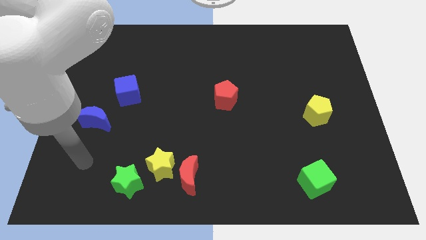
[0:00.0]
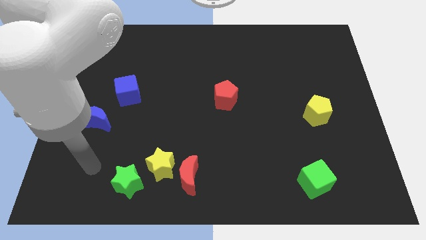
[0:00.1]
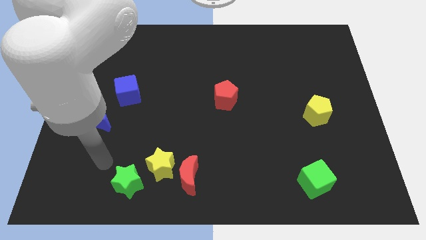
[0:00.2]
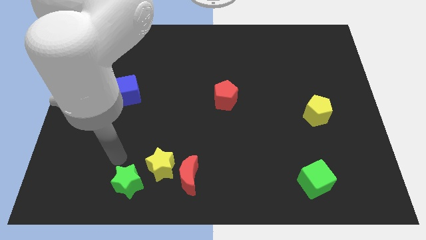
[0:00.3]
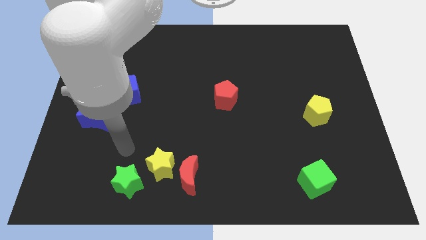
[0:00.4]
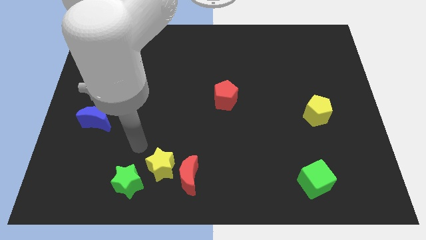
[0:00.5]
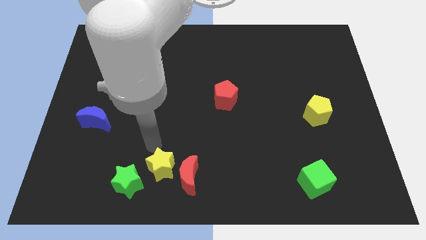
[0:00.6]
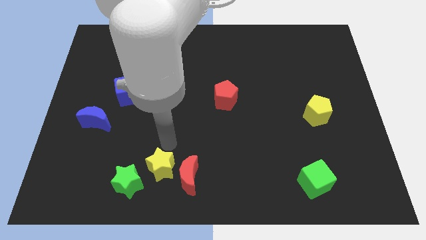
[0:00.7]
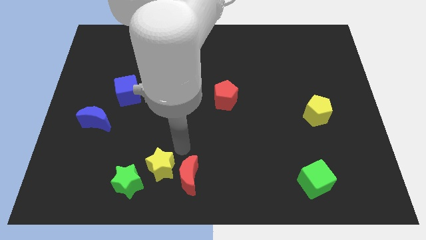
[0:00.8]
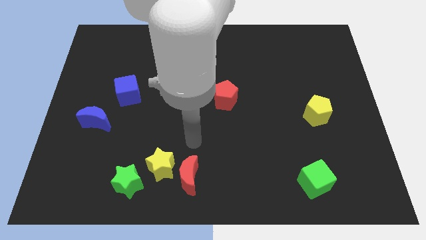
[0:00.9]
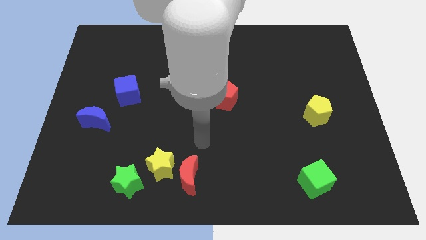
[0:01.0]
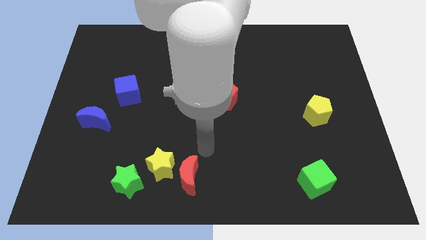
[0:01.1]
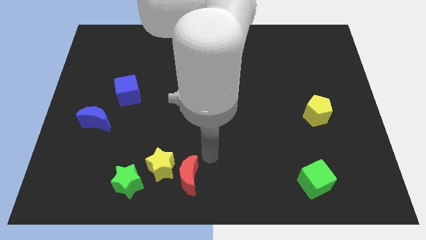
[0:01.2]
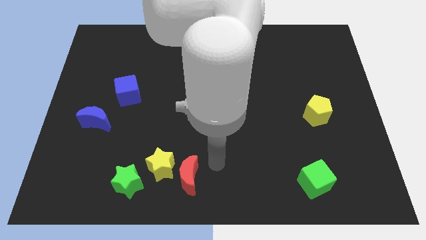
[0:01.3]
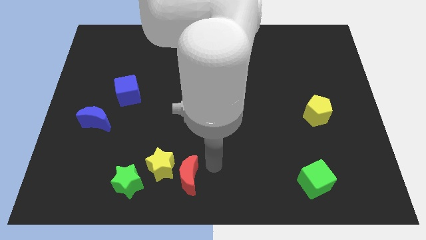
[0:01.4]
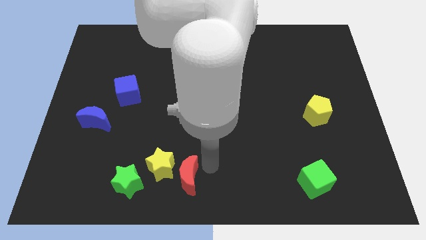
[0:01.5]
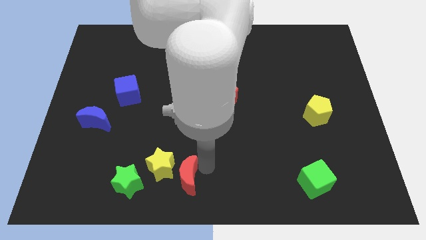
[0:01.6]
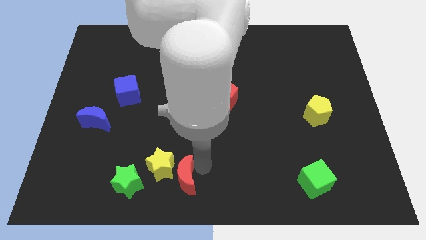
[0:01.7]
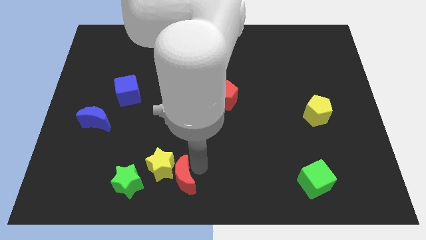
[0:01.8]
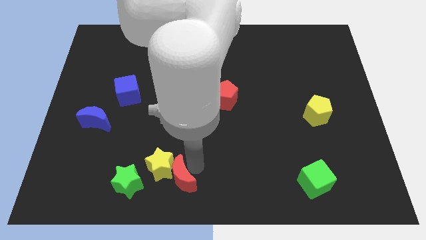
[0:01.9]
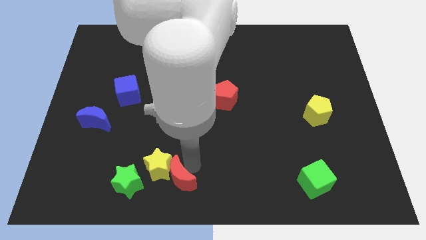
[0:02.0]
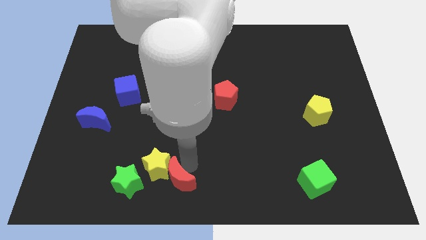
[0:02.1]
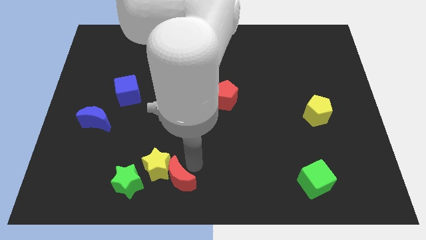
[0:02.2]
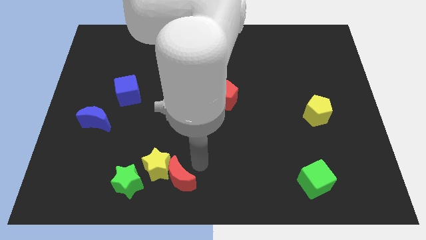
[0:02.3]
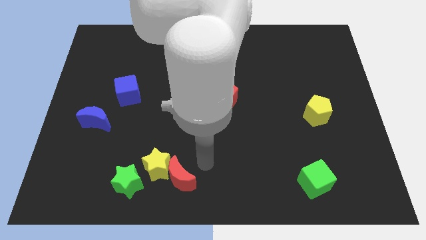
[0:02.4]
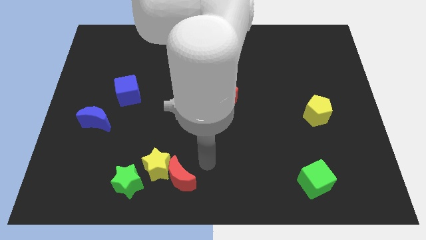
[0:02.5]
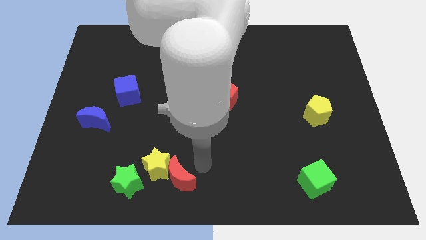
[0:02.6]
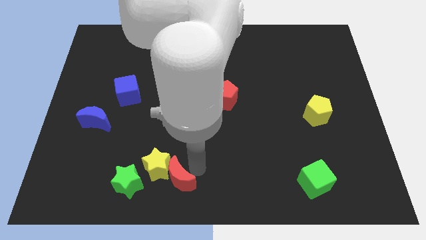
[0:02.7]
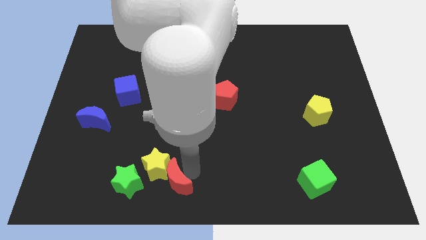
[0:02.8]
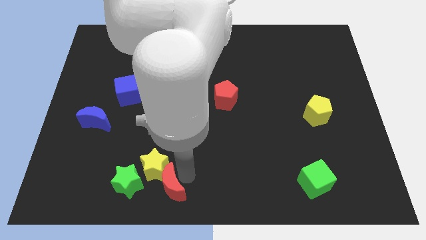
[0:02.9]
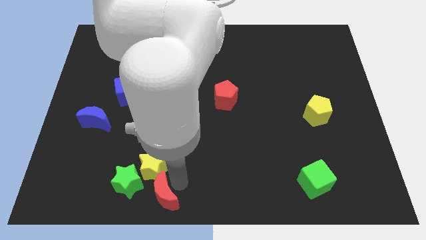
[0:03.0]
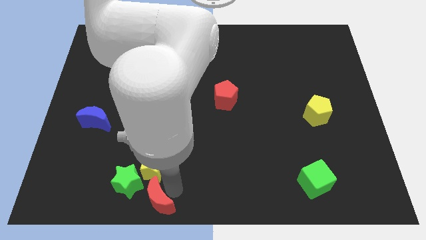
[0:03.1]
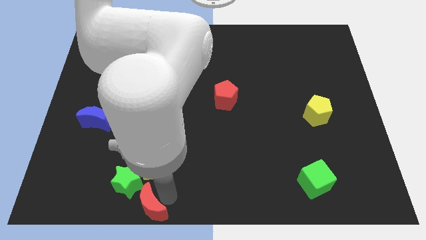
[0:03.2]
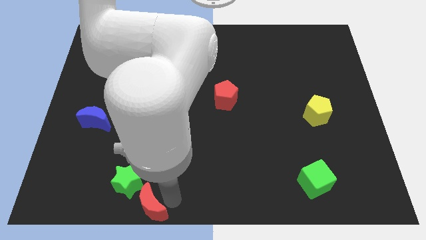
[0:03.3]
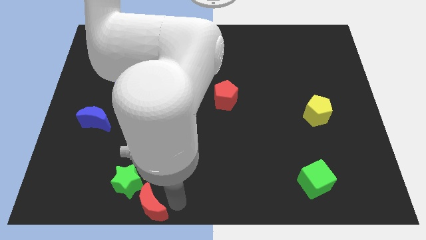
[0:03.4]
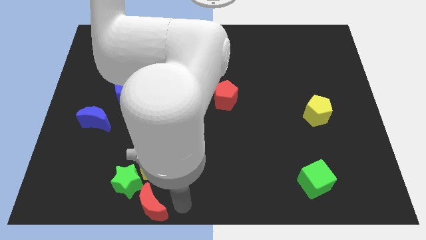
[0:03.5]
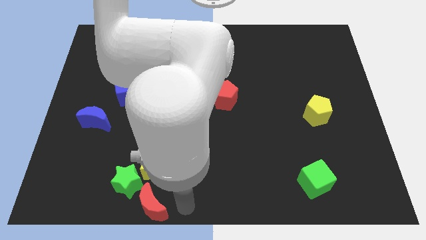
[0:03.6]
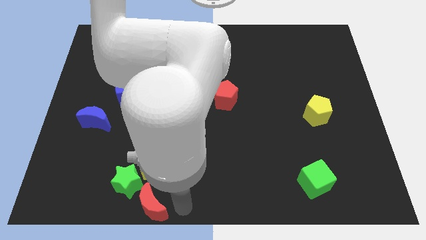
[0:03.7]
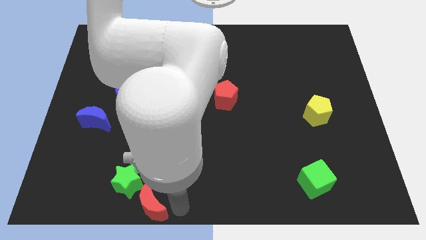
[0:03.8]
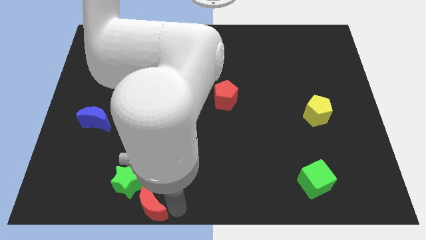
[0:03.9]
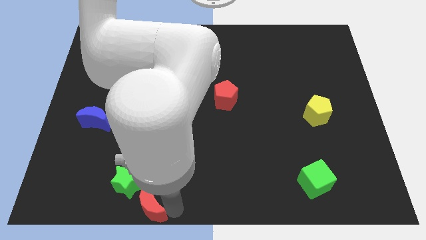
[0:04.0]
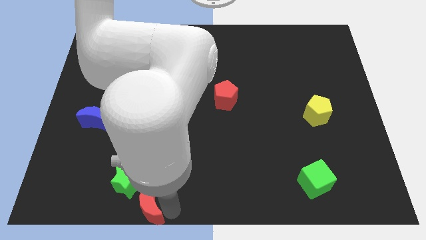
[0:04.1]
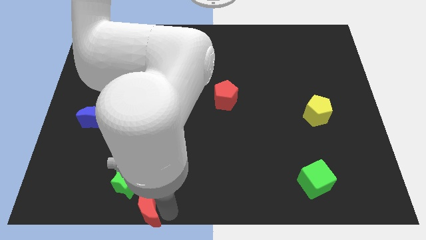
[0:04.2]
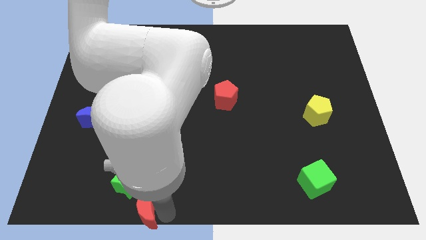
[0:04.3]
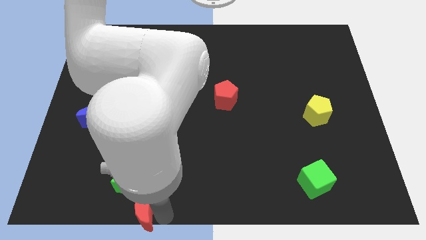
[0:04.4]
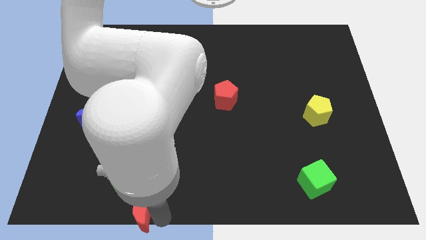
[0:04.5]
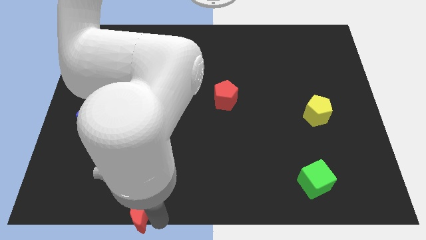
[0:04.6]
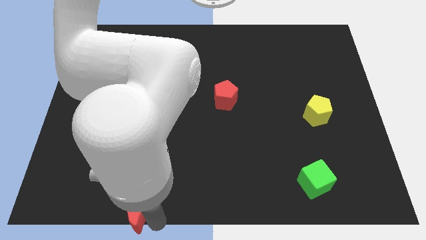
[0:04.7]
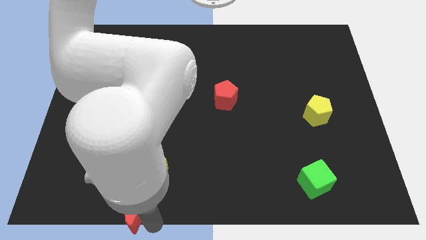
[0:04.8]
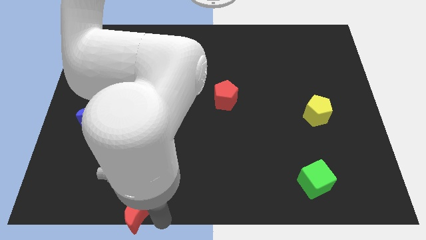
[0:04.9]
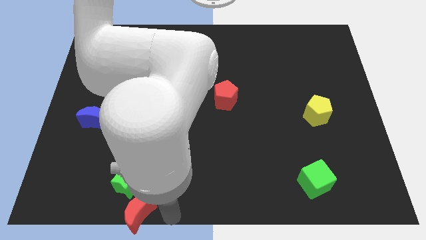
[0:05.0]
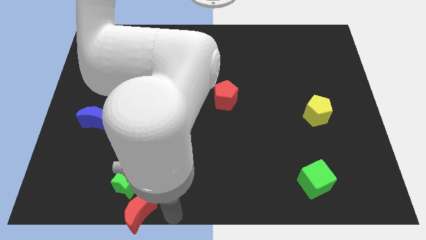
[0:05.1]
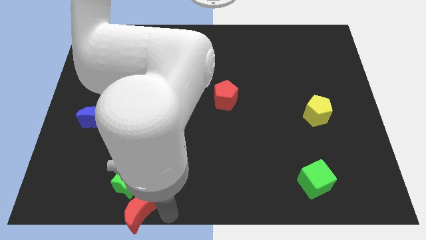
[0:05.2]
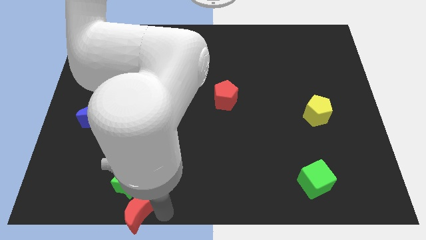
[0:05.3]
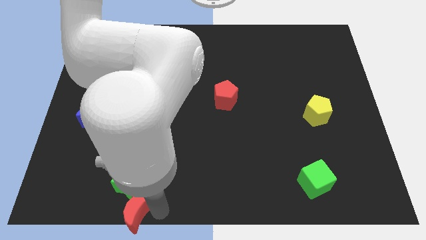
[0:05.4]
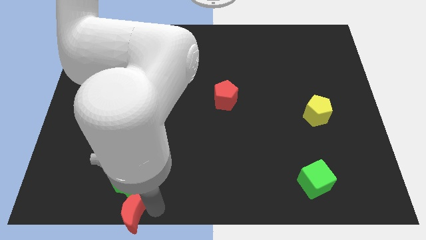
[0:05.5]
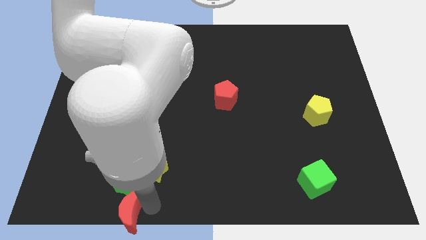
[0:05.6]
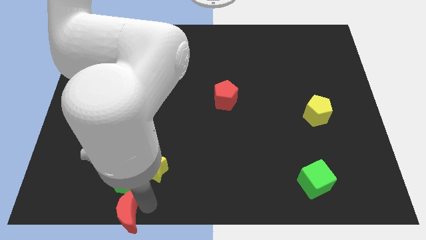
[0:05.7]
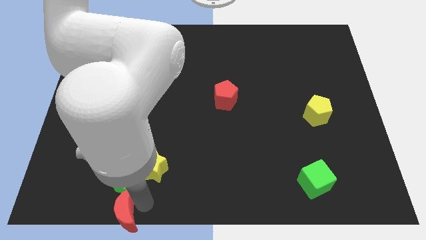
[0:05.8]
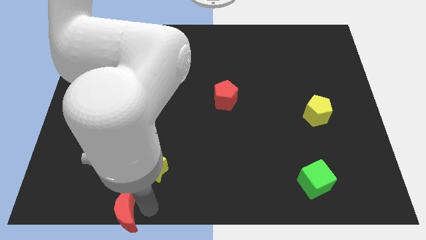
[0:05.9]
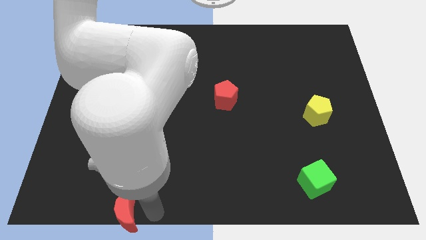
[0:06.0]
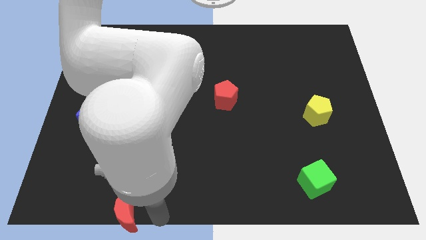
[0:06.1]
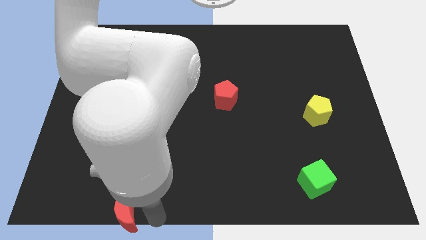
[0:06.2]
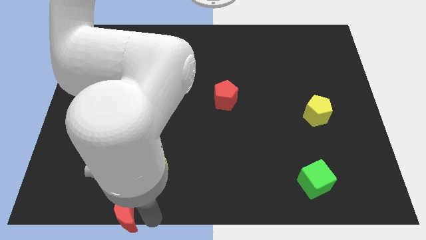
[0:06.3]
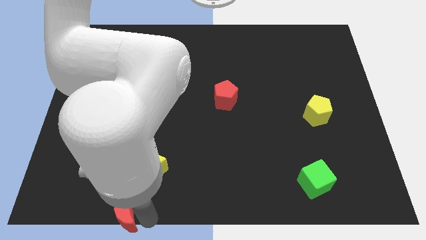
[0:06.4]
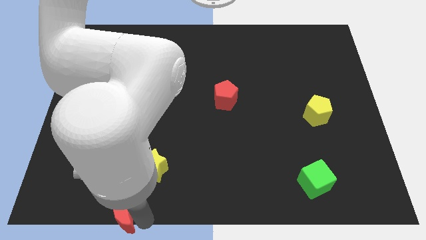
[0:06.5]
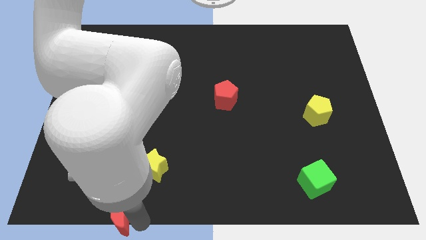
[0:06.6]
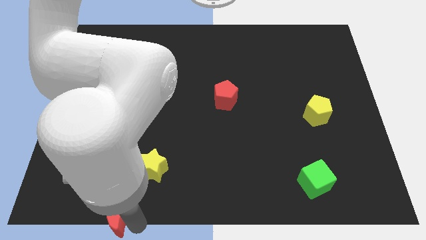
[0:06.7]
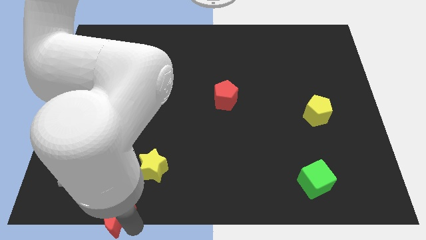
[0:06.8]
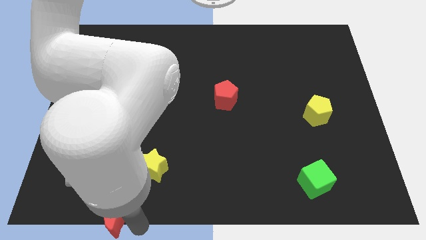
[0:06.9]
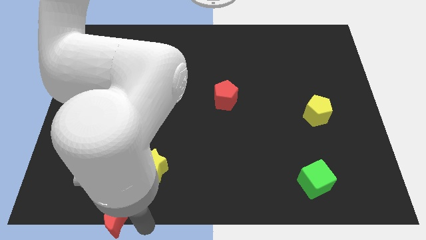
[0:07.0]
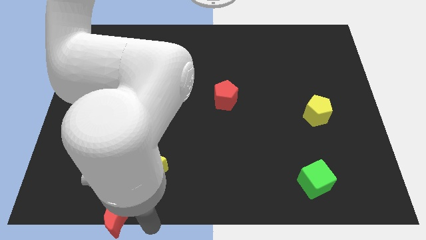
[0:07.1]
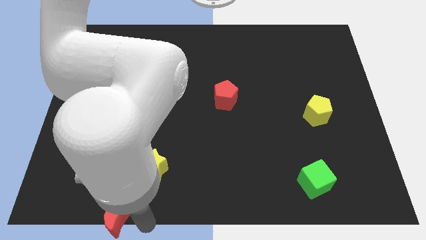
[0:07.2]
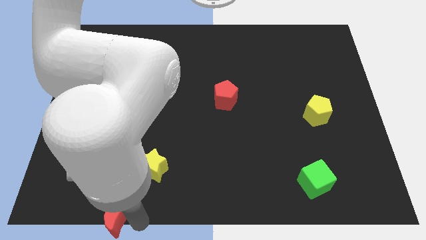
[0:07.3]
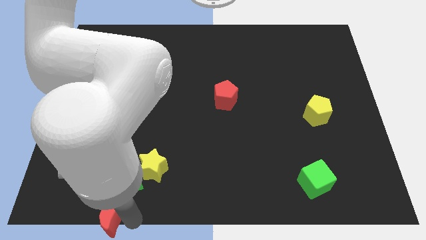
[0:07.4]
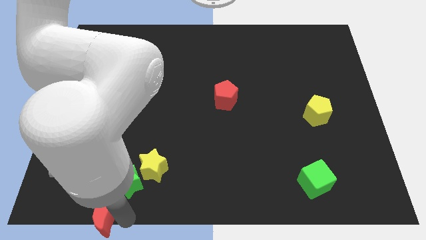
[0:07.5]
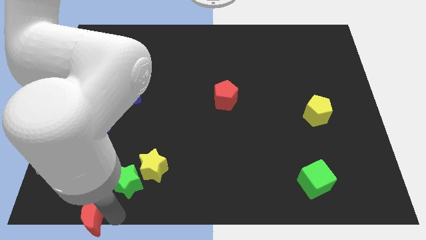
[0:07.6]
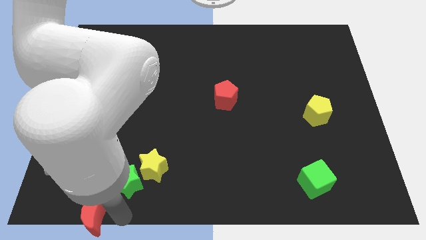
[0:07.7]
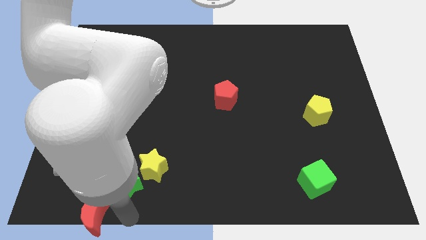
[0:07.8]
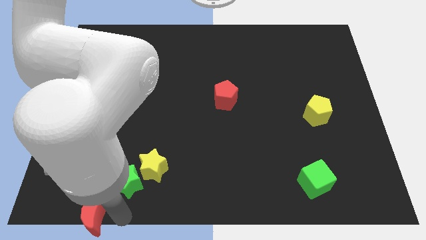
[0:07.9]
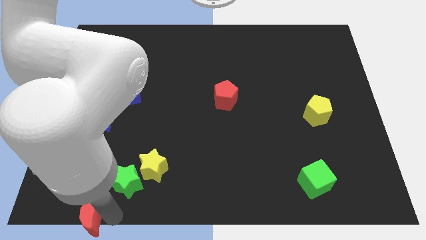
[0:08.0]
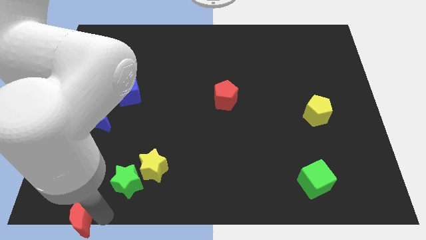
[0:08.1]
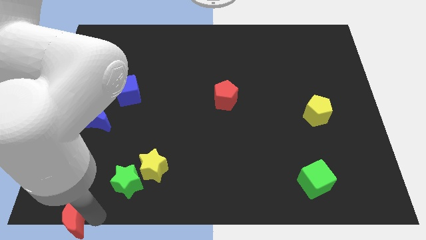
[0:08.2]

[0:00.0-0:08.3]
push the red moon to the bottom left of the board
